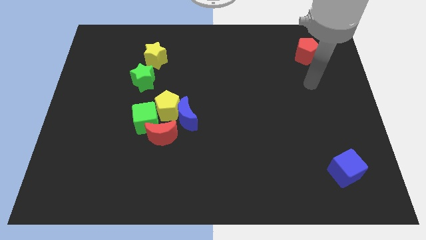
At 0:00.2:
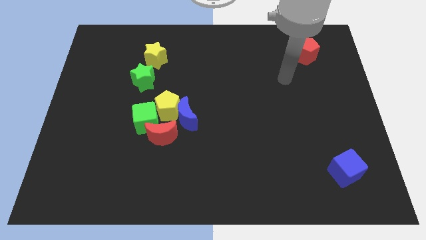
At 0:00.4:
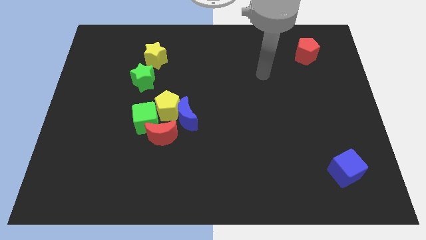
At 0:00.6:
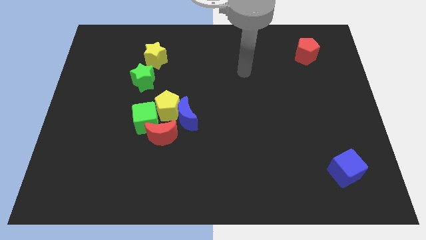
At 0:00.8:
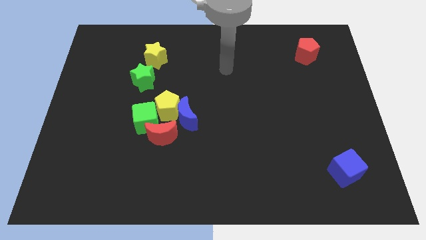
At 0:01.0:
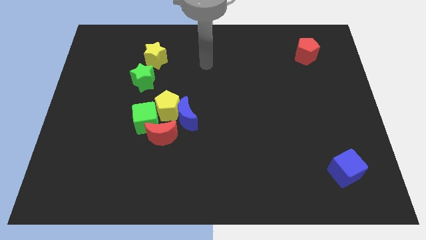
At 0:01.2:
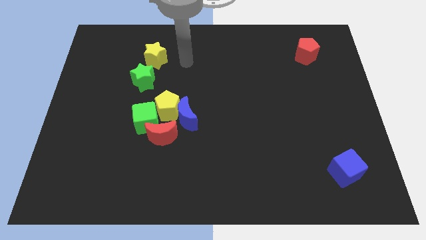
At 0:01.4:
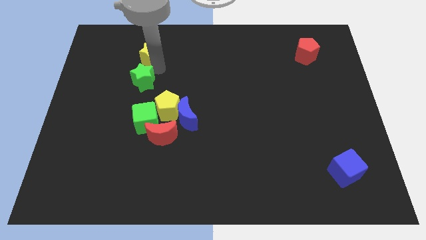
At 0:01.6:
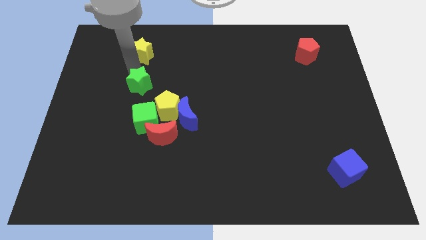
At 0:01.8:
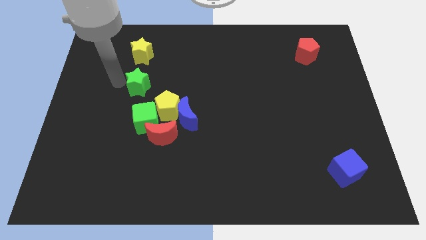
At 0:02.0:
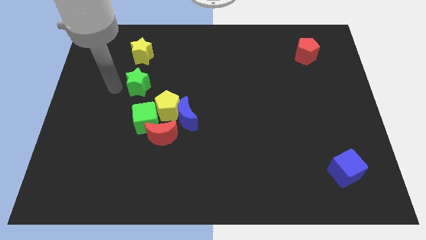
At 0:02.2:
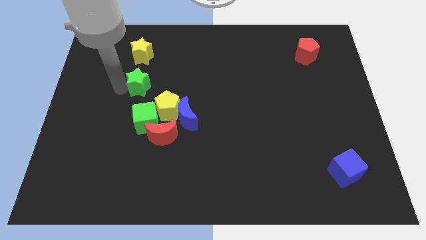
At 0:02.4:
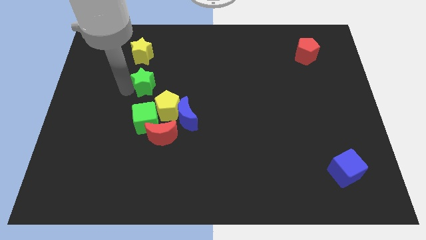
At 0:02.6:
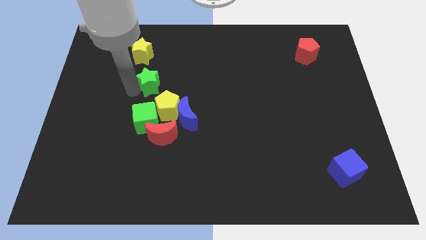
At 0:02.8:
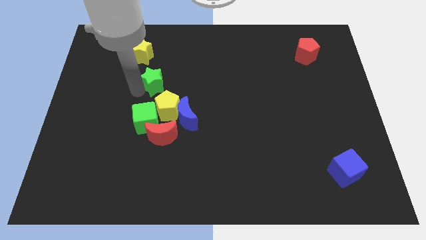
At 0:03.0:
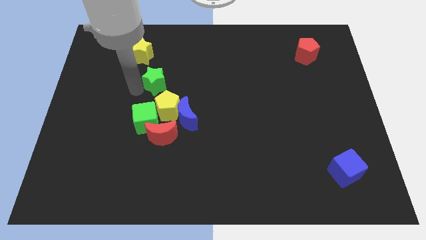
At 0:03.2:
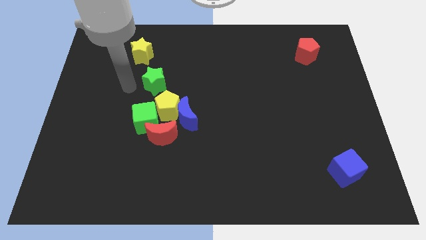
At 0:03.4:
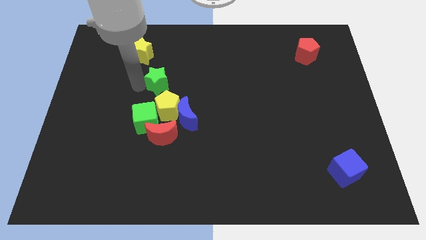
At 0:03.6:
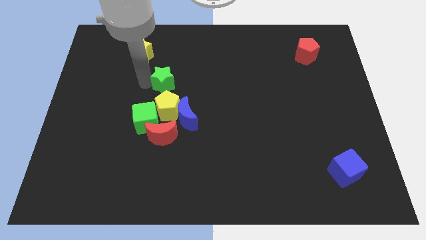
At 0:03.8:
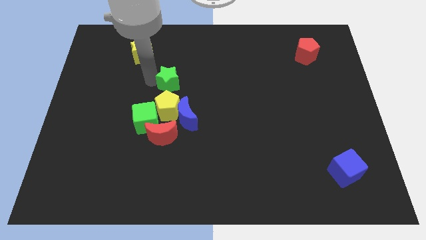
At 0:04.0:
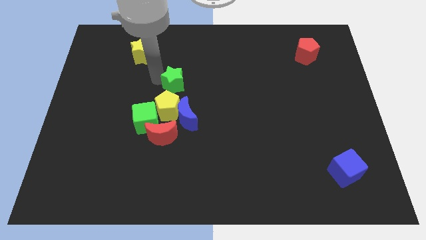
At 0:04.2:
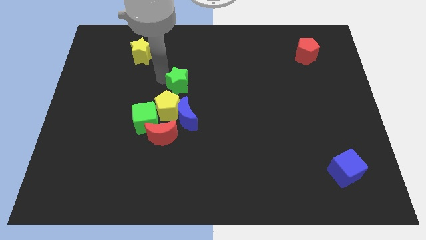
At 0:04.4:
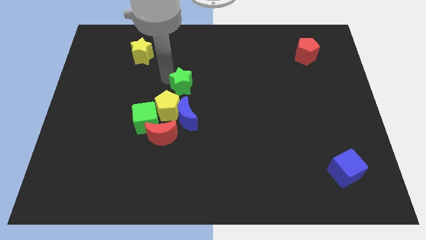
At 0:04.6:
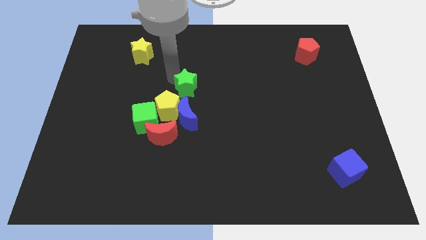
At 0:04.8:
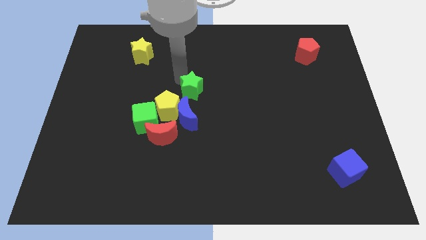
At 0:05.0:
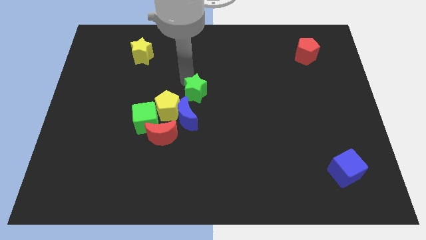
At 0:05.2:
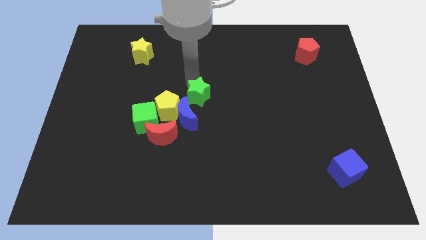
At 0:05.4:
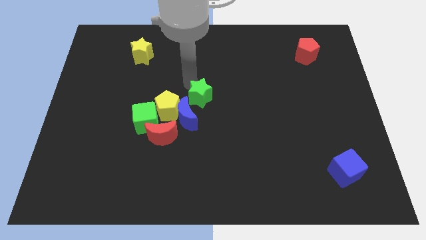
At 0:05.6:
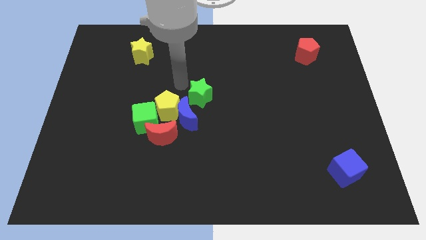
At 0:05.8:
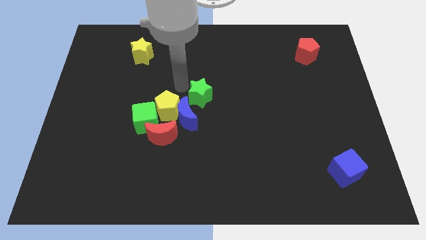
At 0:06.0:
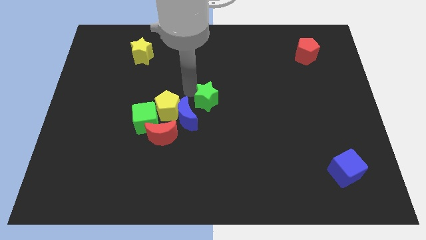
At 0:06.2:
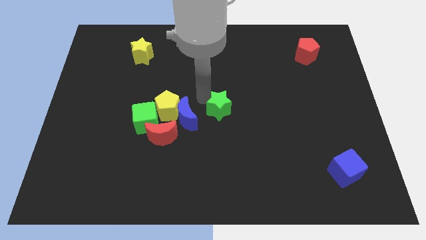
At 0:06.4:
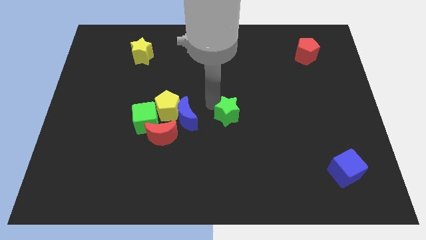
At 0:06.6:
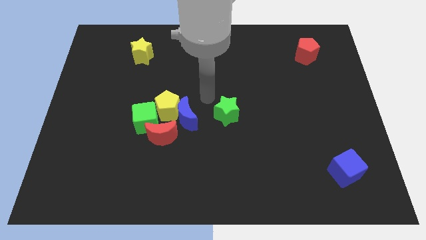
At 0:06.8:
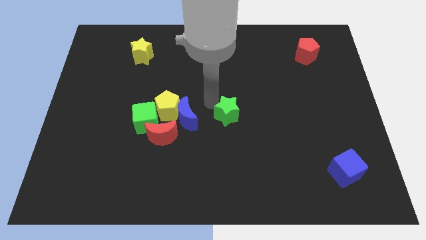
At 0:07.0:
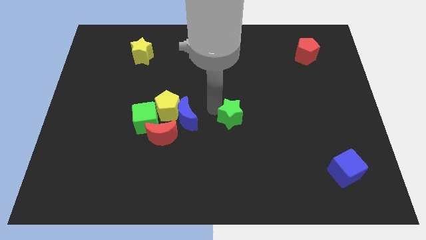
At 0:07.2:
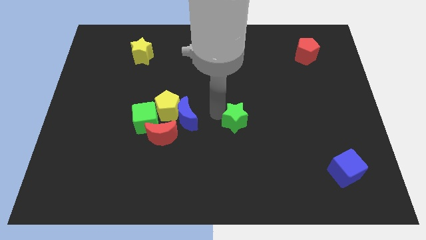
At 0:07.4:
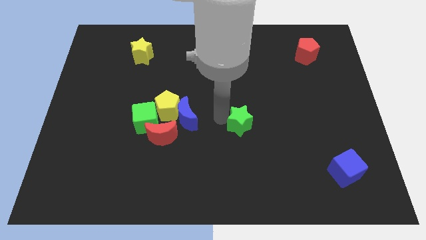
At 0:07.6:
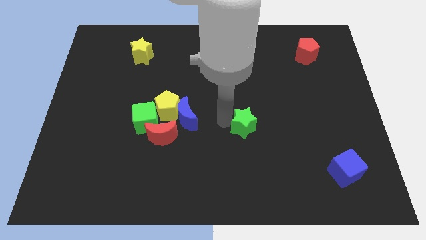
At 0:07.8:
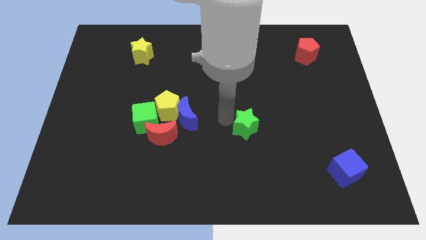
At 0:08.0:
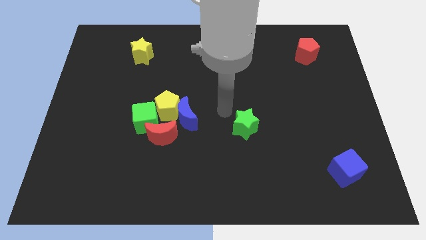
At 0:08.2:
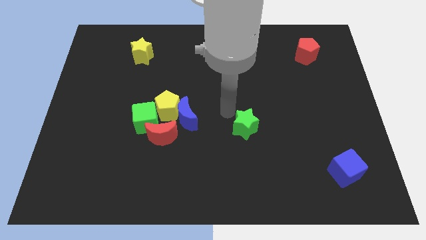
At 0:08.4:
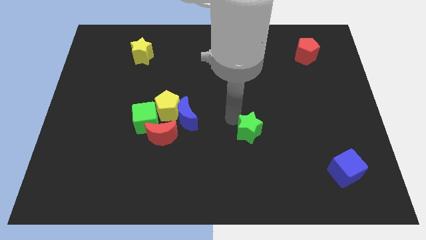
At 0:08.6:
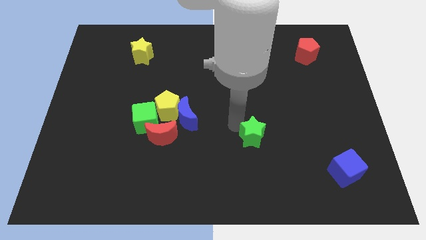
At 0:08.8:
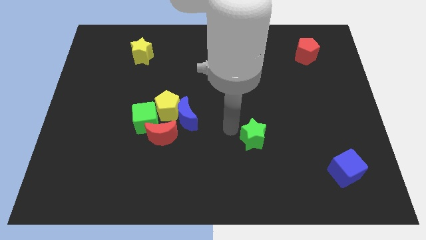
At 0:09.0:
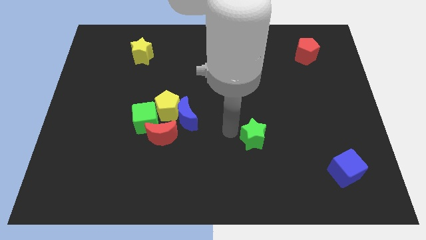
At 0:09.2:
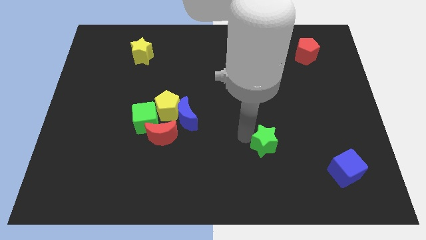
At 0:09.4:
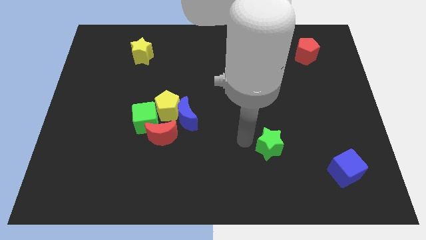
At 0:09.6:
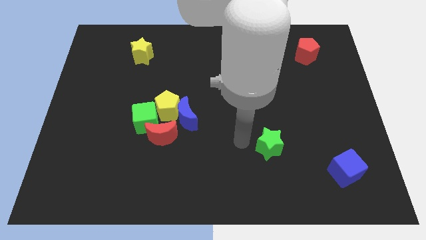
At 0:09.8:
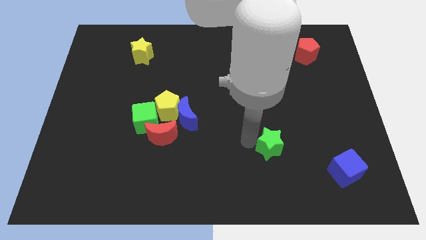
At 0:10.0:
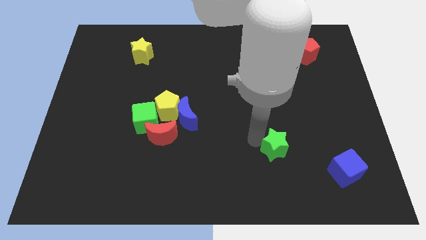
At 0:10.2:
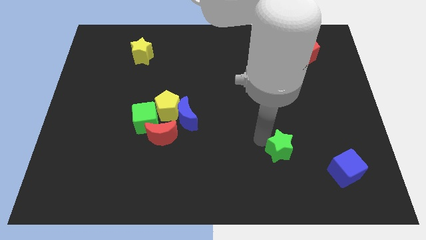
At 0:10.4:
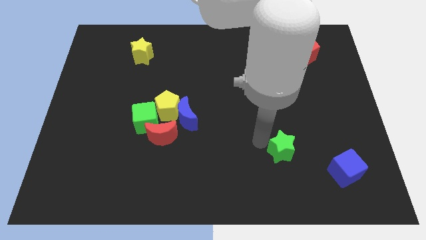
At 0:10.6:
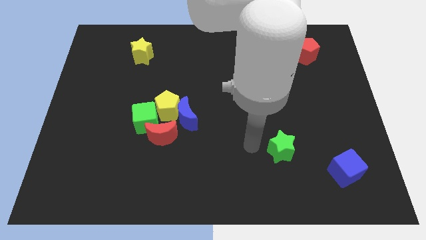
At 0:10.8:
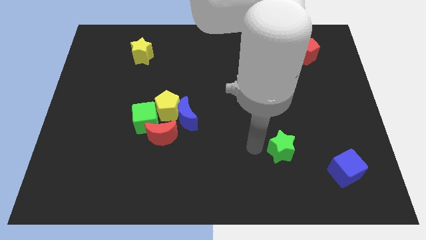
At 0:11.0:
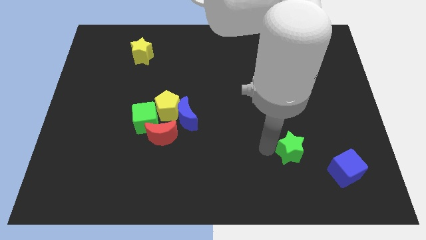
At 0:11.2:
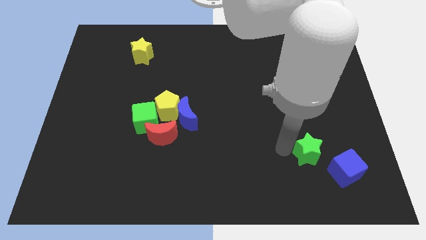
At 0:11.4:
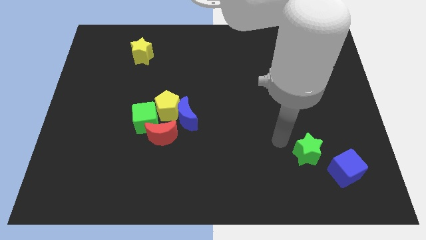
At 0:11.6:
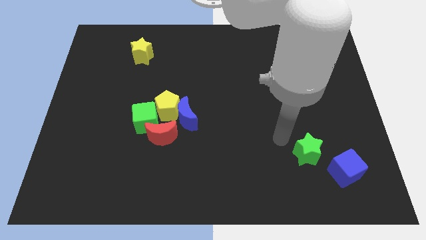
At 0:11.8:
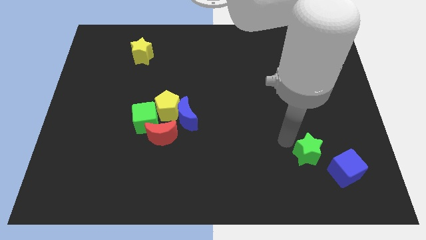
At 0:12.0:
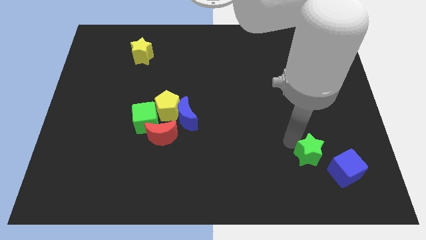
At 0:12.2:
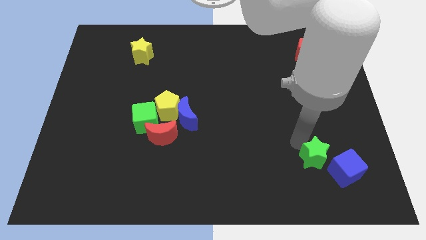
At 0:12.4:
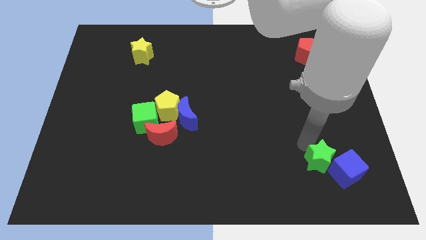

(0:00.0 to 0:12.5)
push the green star to the blue cube

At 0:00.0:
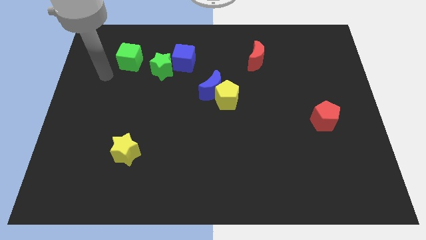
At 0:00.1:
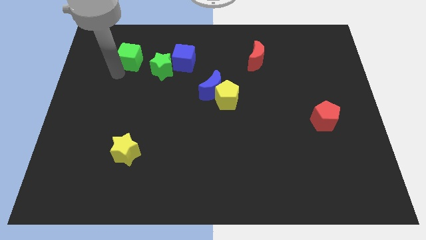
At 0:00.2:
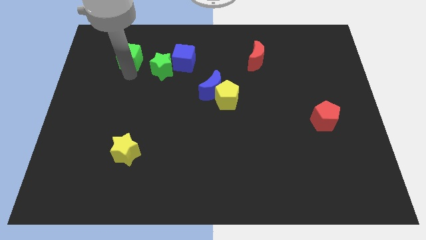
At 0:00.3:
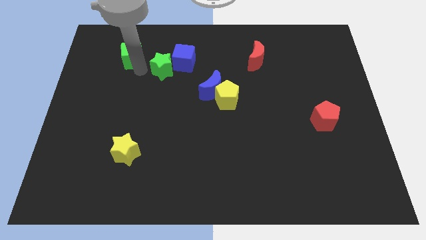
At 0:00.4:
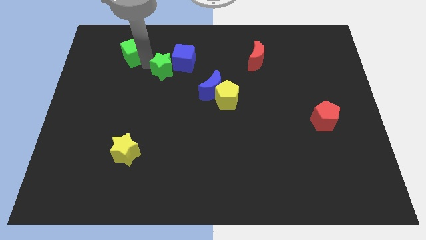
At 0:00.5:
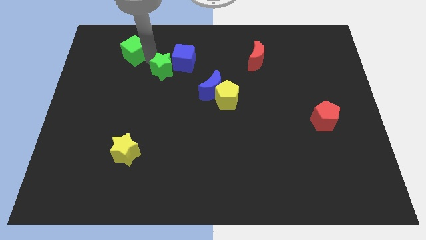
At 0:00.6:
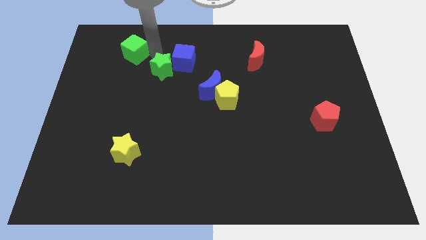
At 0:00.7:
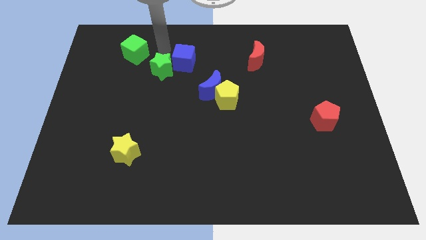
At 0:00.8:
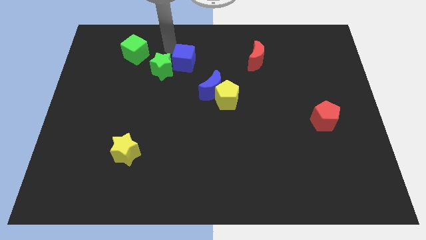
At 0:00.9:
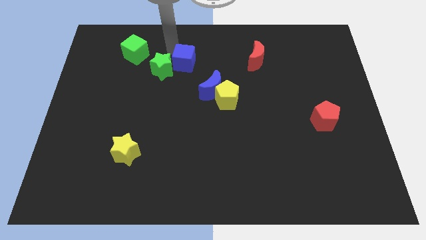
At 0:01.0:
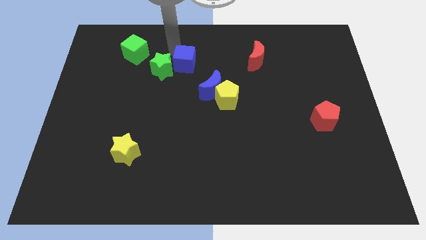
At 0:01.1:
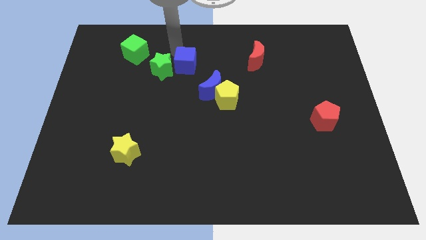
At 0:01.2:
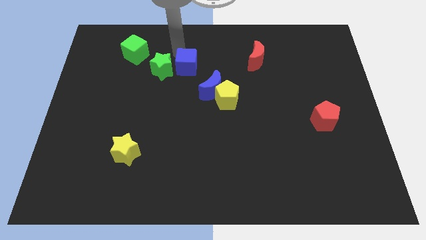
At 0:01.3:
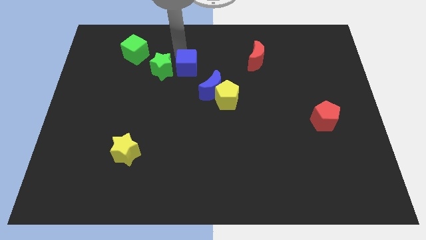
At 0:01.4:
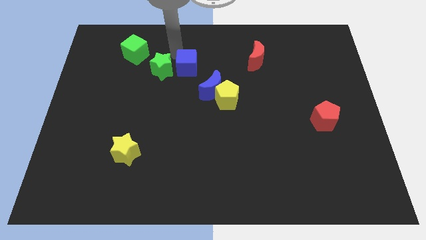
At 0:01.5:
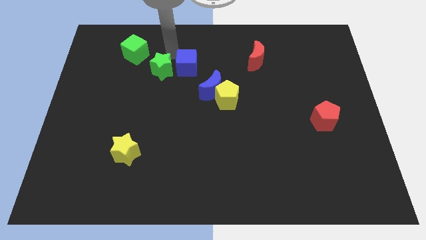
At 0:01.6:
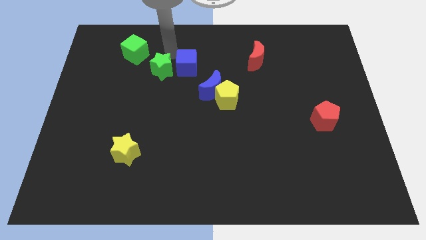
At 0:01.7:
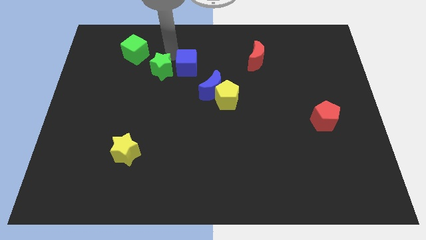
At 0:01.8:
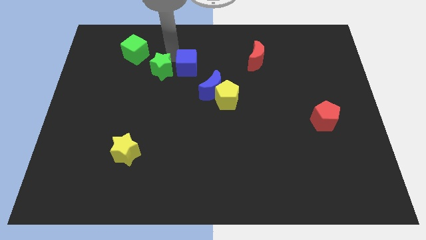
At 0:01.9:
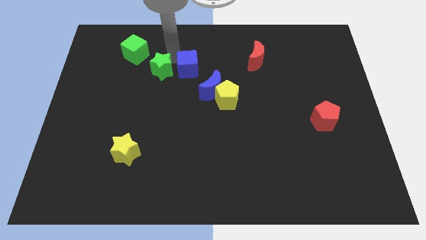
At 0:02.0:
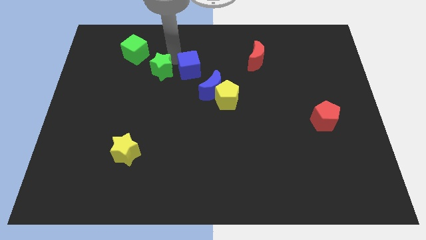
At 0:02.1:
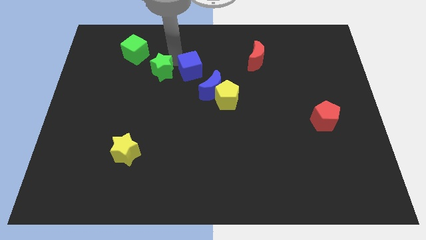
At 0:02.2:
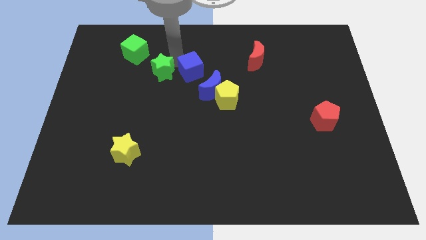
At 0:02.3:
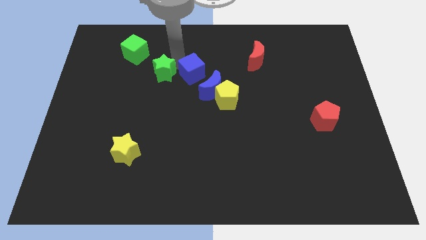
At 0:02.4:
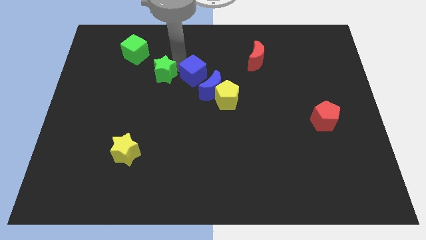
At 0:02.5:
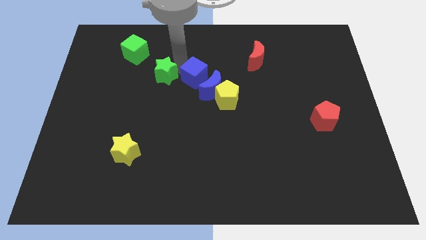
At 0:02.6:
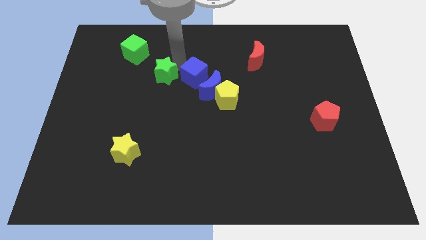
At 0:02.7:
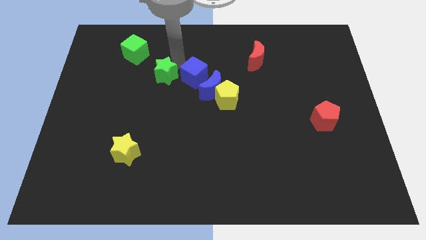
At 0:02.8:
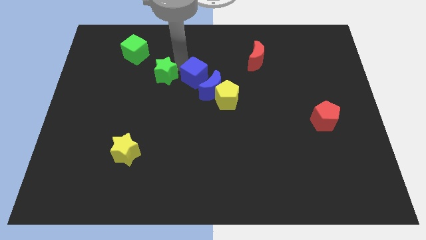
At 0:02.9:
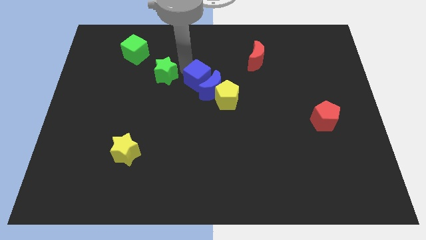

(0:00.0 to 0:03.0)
slide the blue cube to the blue moon
